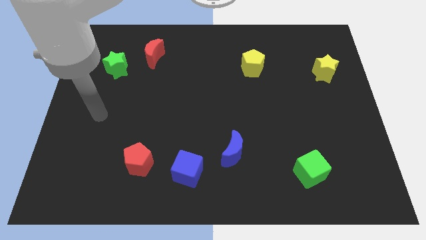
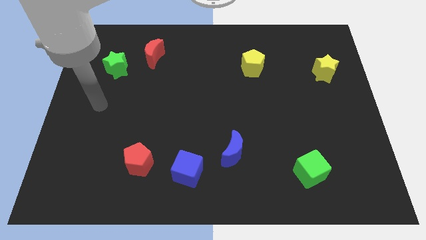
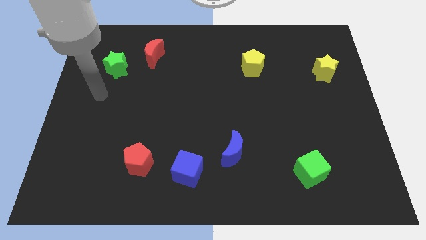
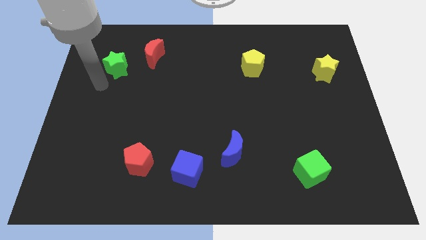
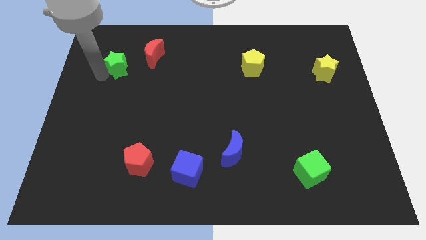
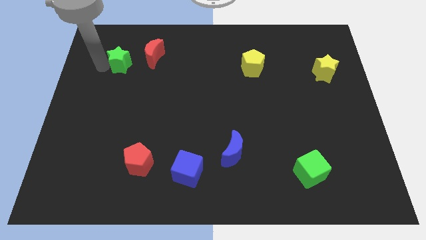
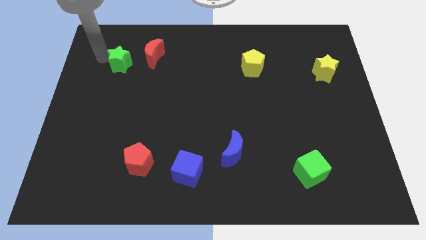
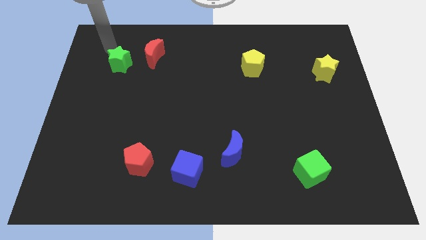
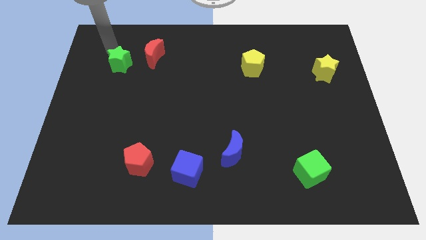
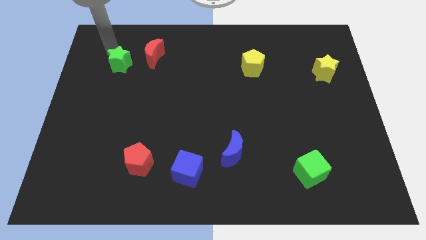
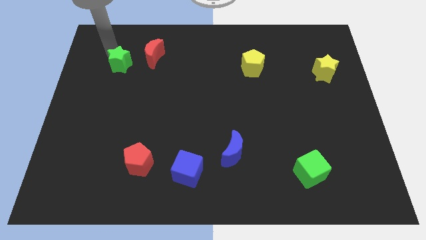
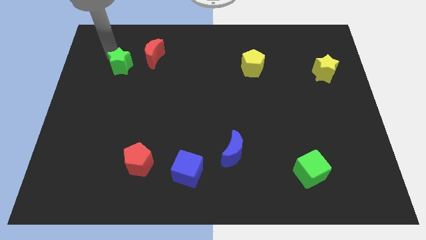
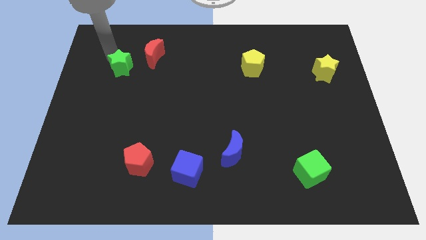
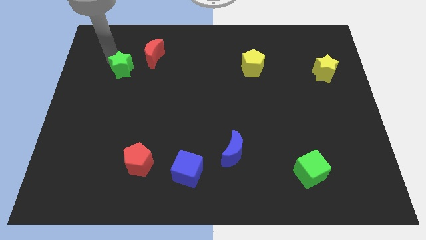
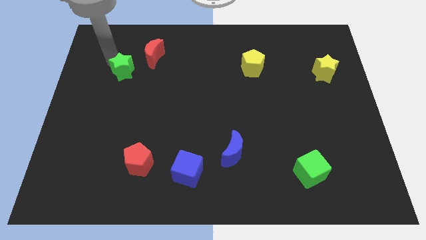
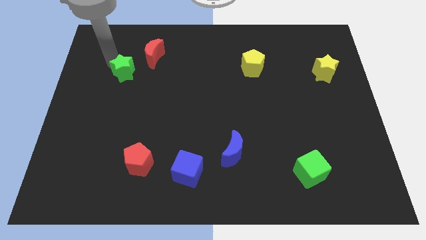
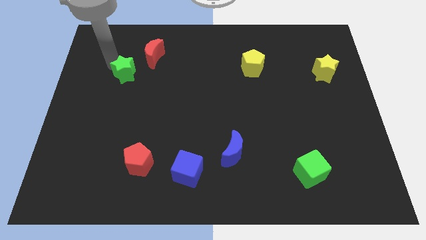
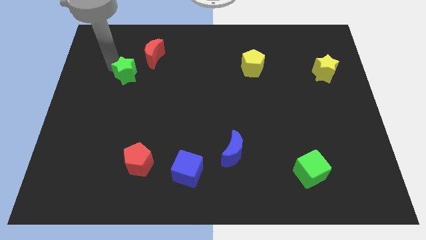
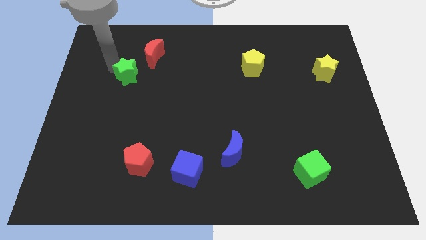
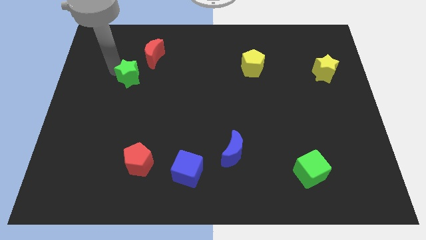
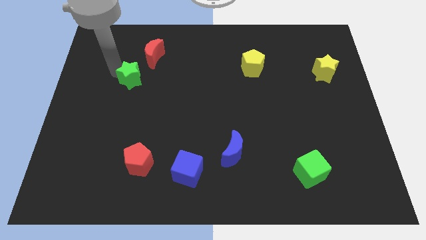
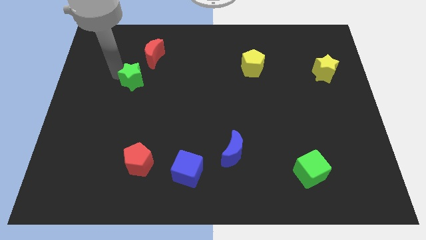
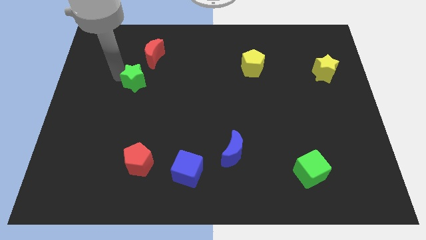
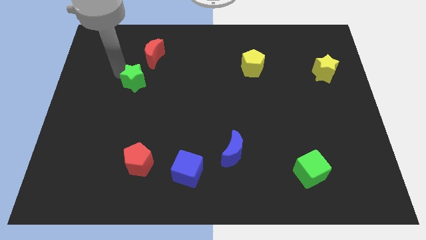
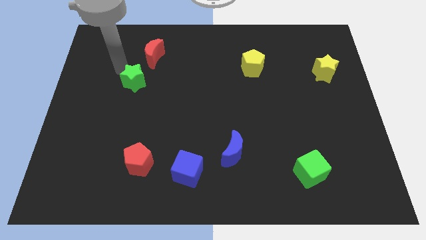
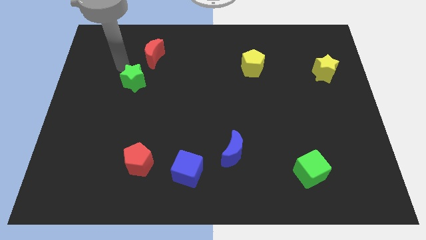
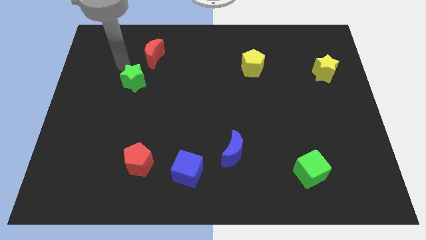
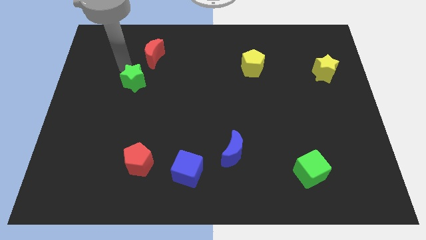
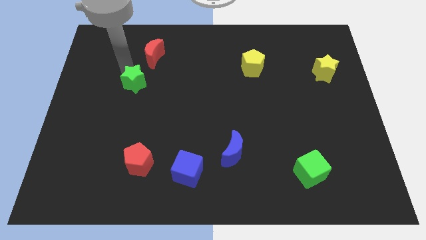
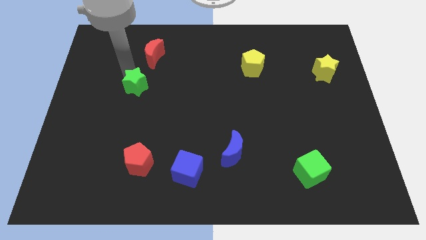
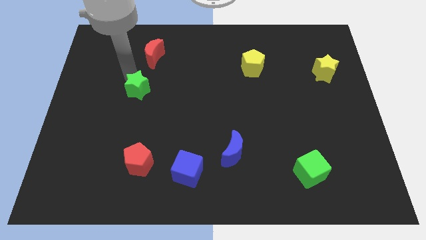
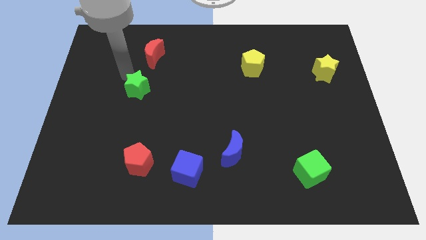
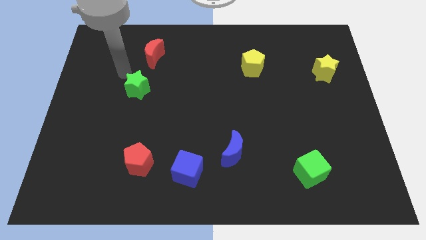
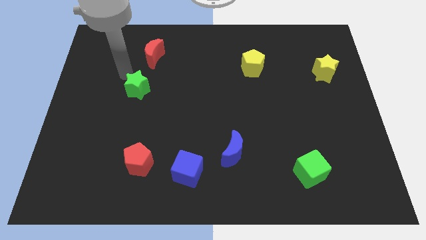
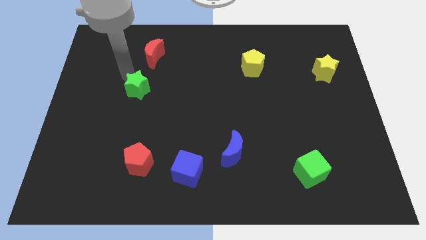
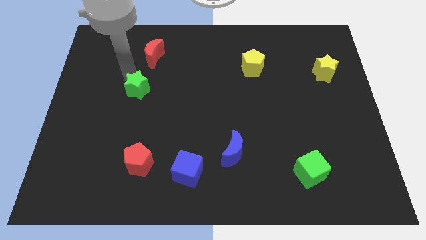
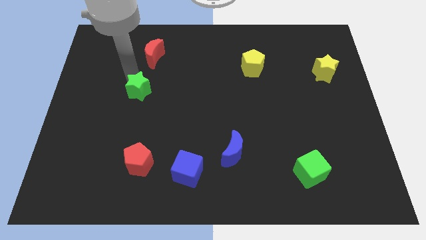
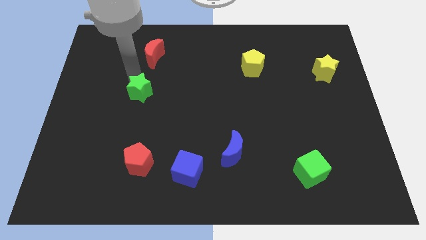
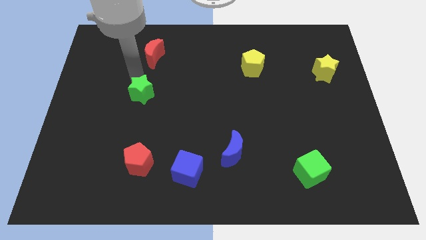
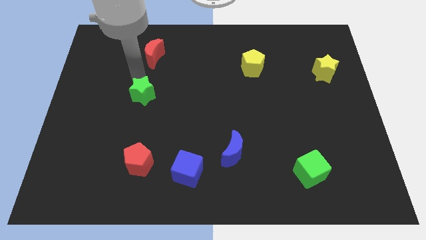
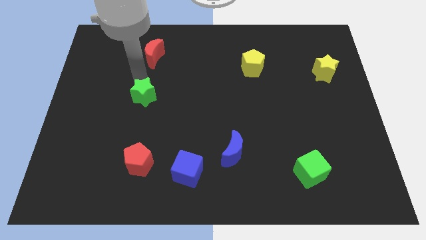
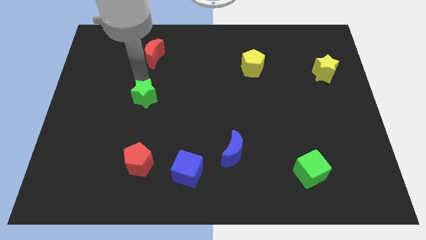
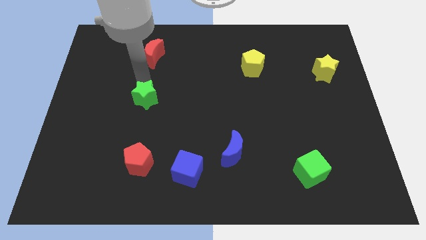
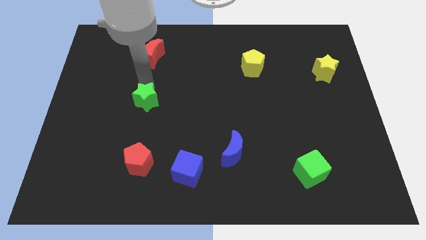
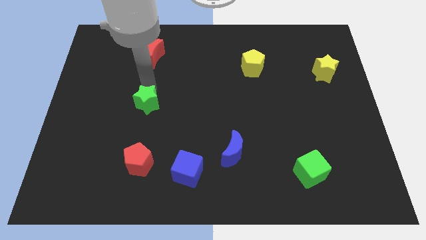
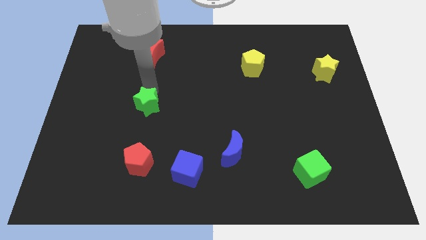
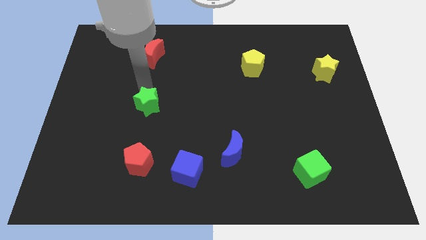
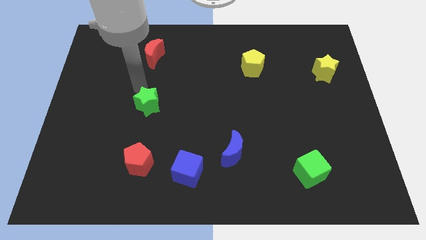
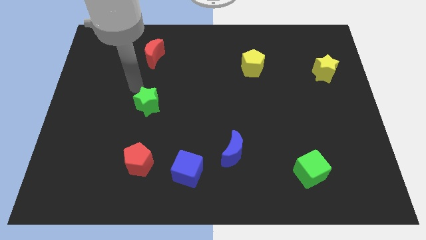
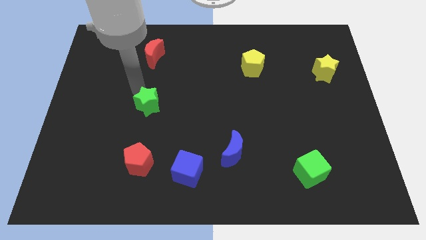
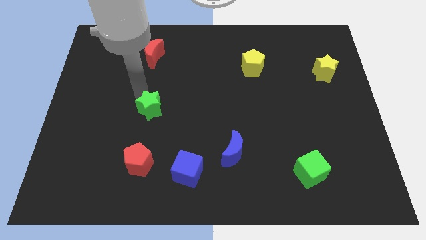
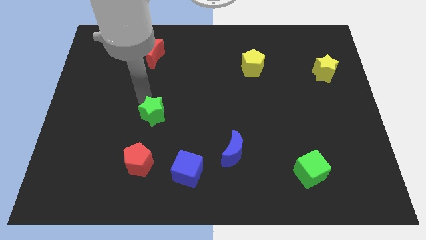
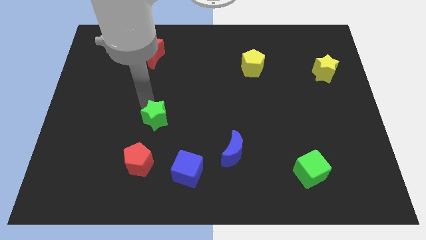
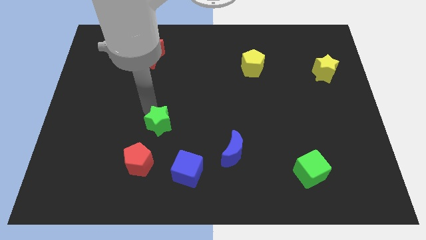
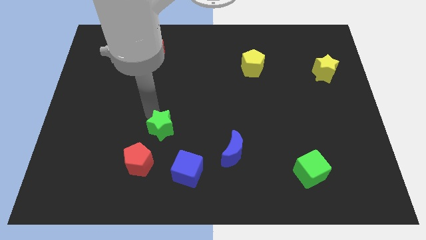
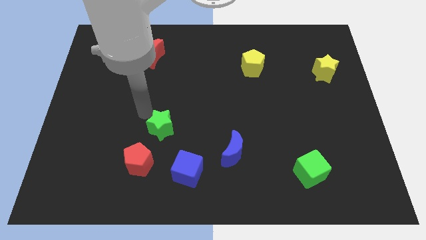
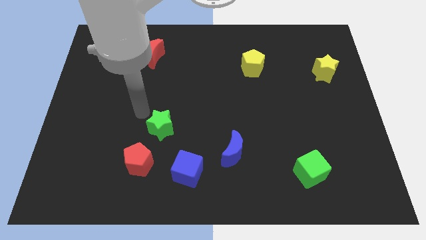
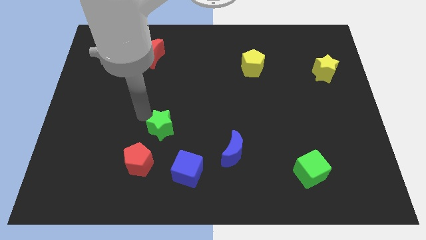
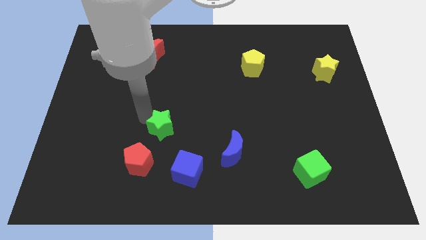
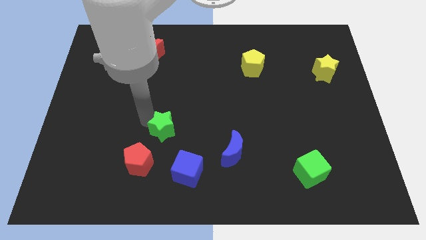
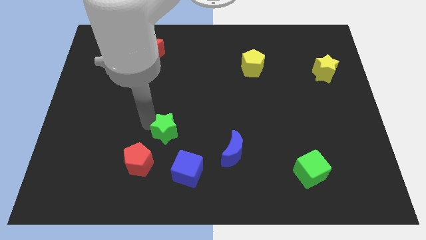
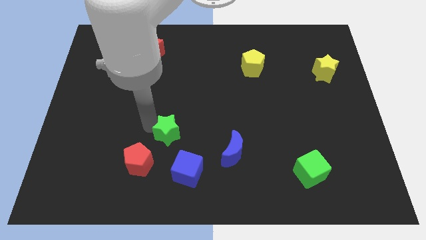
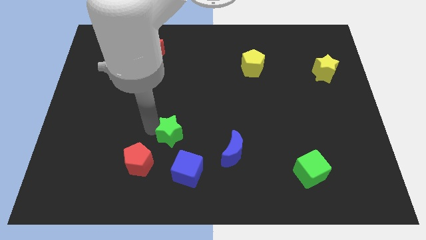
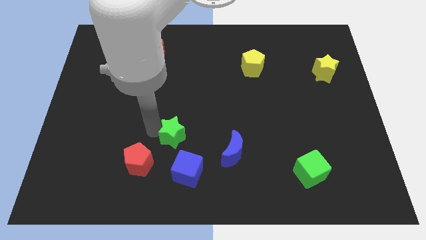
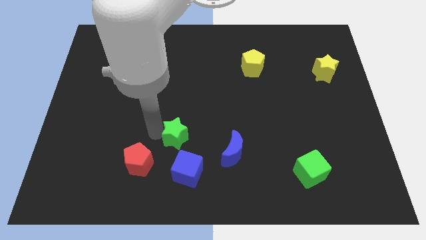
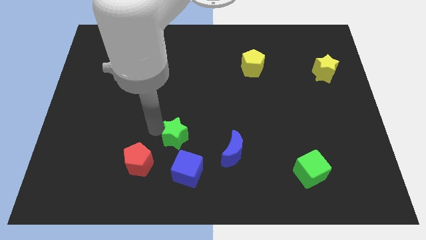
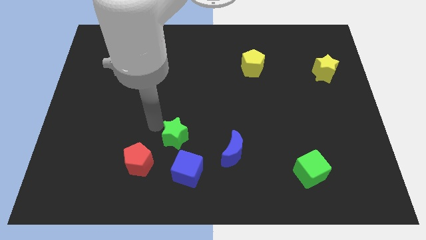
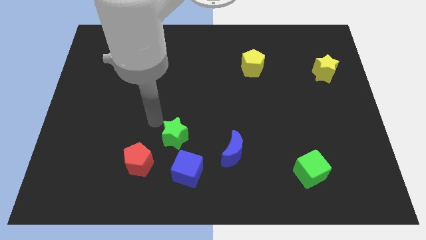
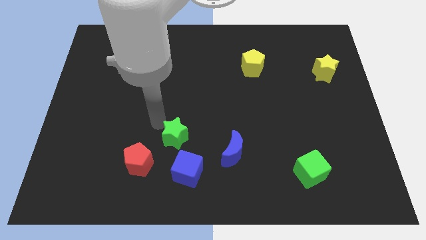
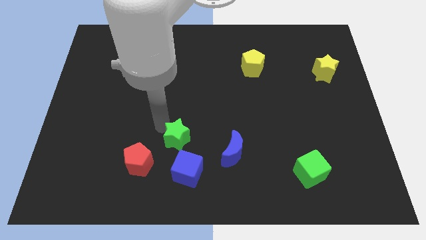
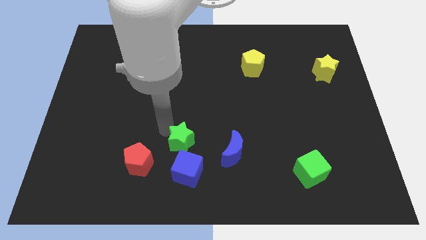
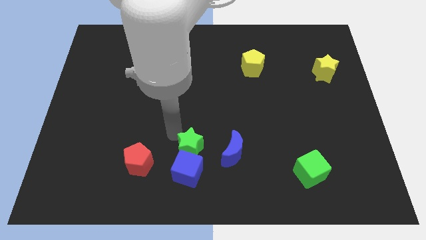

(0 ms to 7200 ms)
put the green star close to the blue cube
